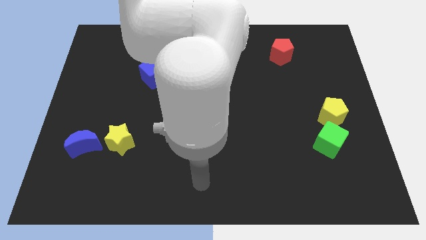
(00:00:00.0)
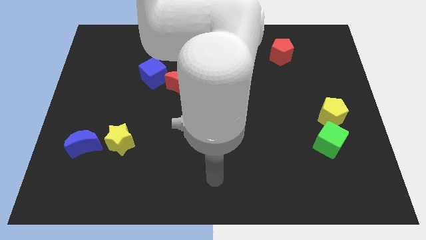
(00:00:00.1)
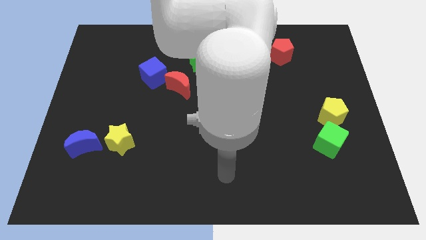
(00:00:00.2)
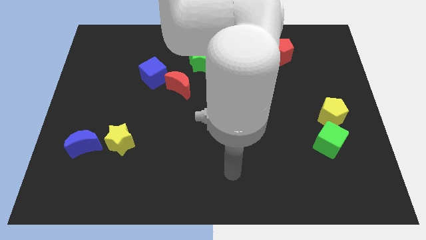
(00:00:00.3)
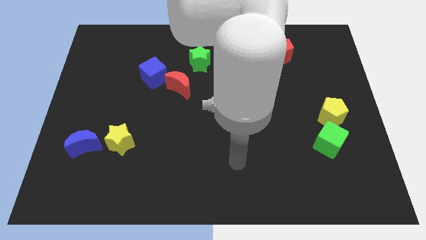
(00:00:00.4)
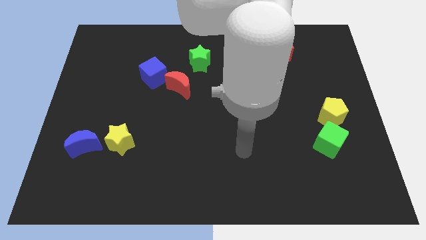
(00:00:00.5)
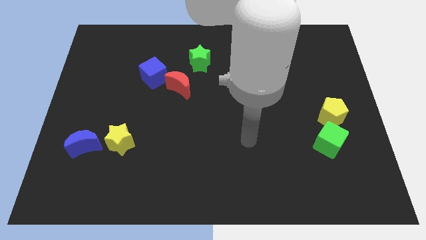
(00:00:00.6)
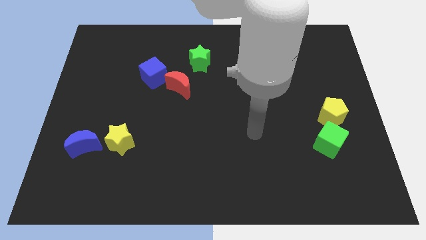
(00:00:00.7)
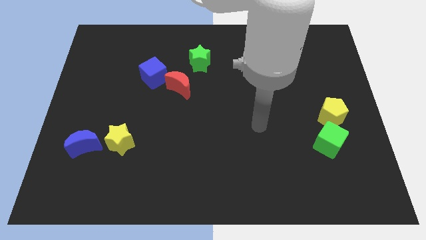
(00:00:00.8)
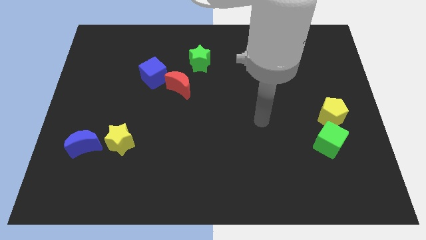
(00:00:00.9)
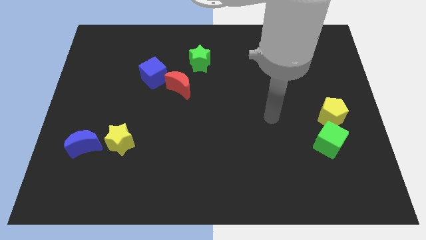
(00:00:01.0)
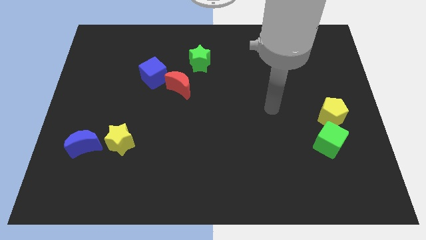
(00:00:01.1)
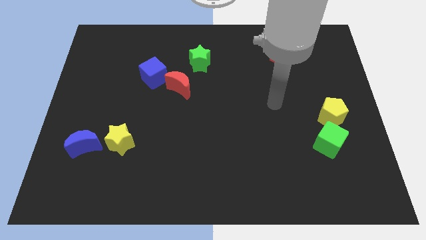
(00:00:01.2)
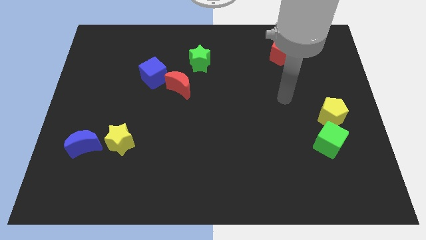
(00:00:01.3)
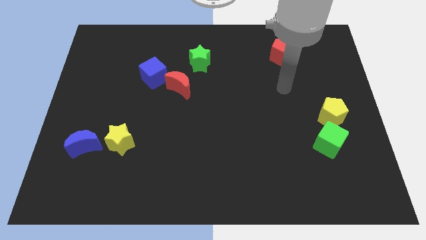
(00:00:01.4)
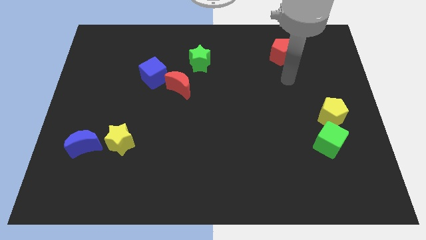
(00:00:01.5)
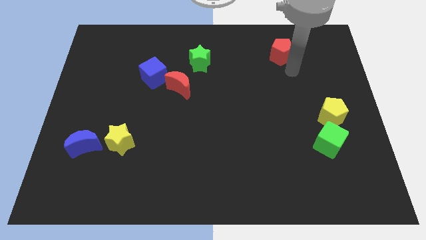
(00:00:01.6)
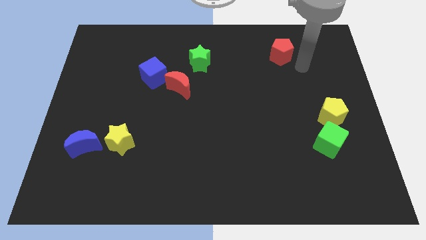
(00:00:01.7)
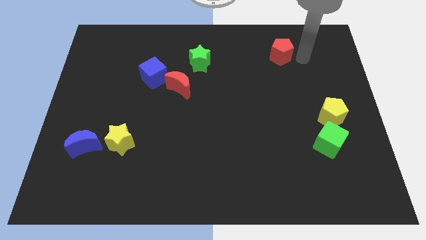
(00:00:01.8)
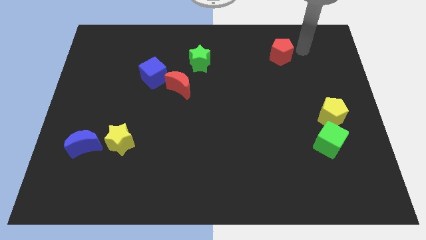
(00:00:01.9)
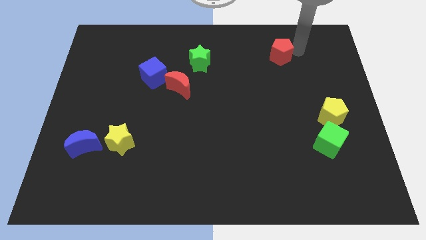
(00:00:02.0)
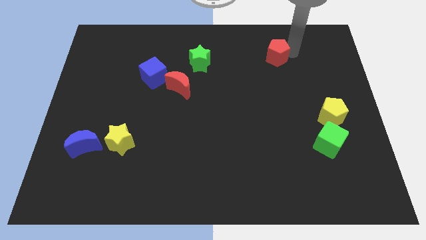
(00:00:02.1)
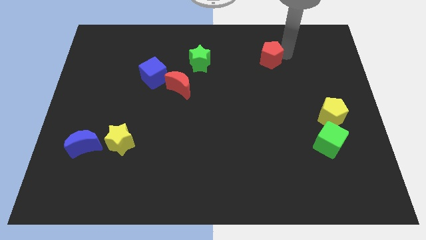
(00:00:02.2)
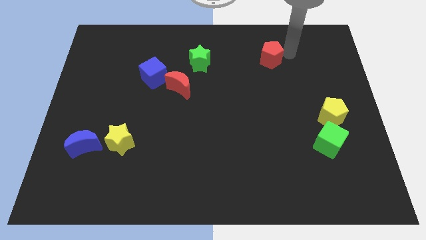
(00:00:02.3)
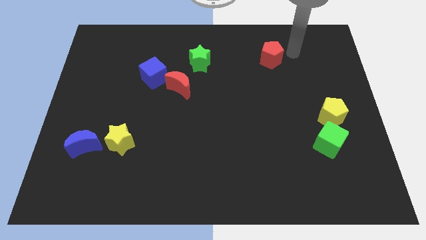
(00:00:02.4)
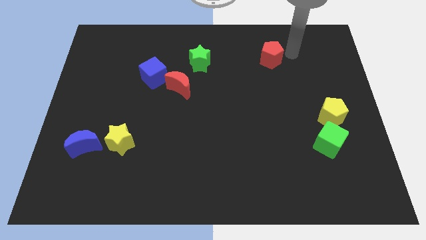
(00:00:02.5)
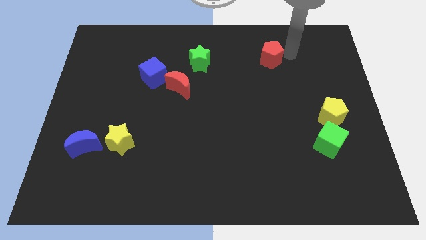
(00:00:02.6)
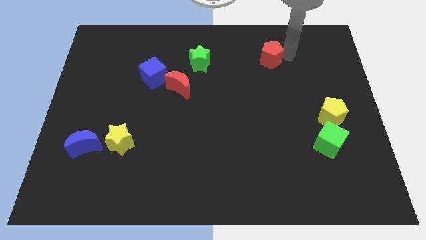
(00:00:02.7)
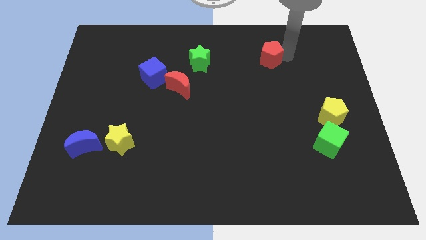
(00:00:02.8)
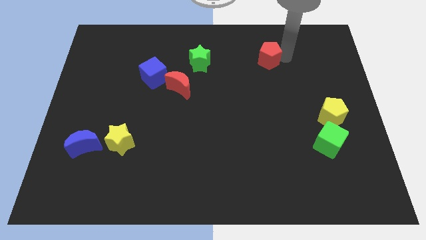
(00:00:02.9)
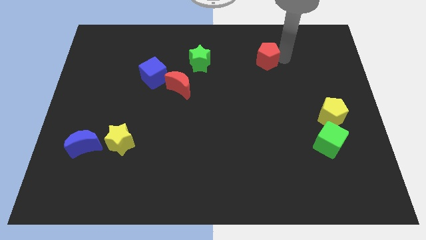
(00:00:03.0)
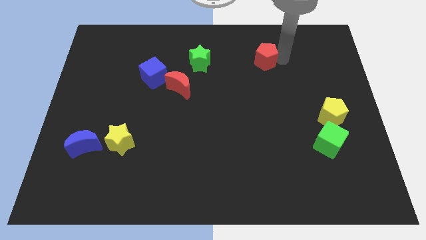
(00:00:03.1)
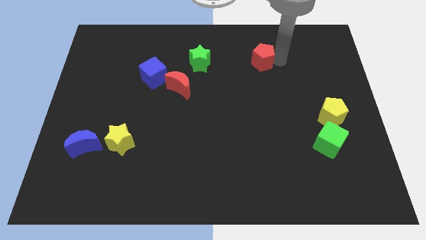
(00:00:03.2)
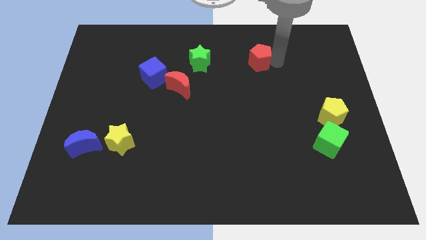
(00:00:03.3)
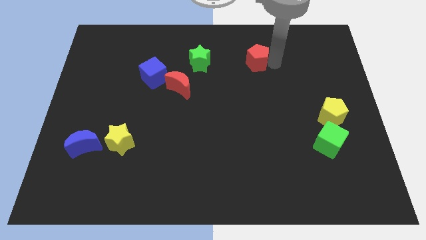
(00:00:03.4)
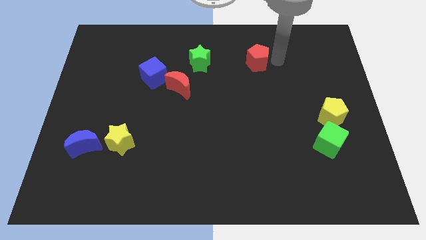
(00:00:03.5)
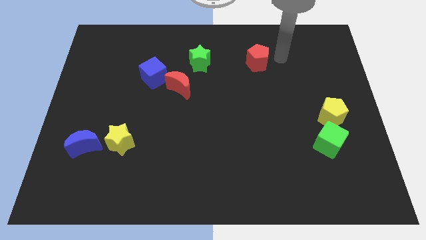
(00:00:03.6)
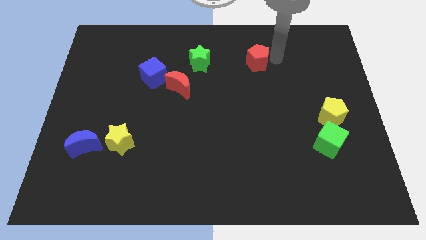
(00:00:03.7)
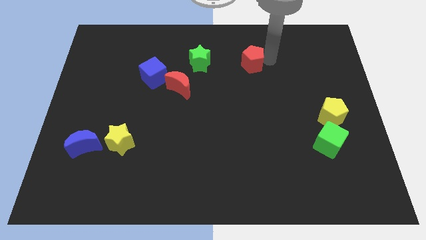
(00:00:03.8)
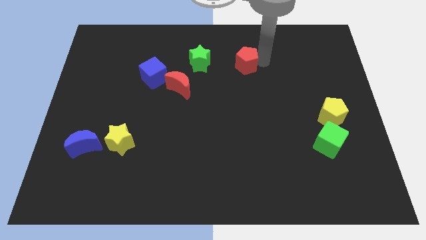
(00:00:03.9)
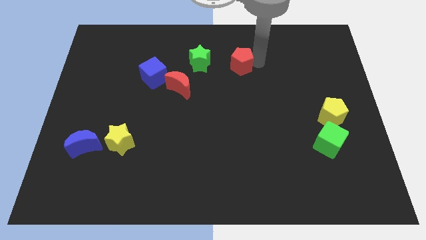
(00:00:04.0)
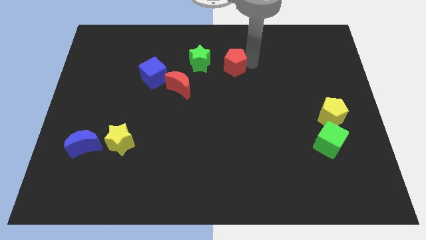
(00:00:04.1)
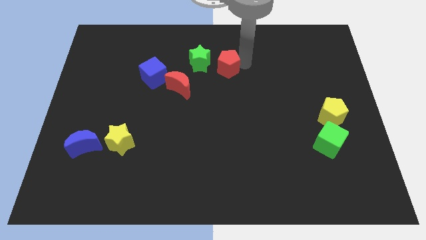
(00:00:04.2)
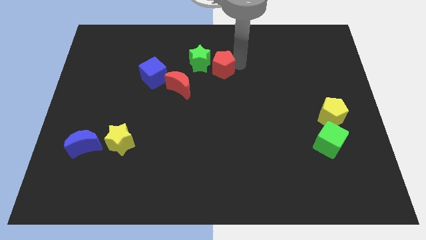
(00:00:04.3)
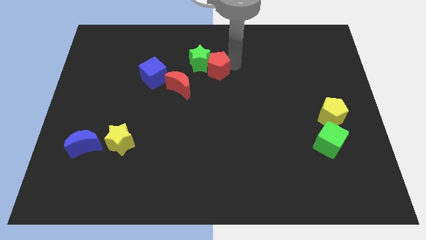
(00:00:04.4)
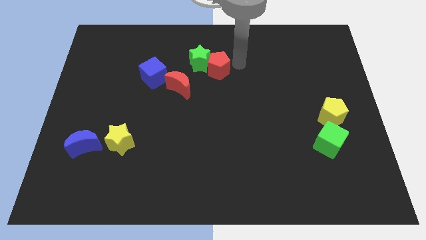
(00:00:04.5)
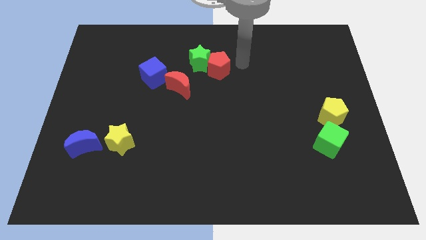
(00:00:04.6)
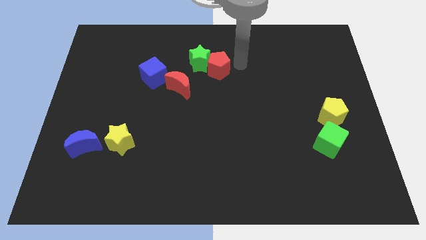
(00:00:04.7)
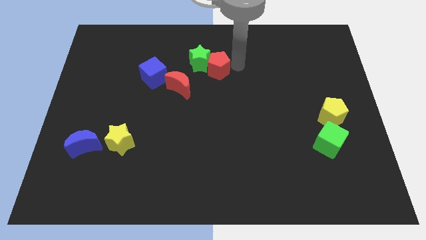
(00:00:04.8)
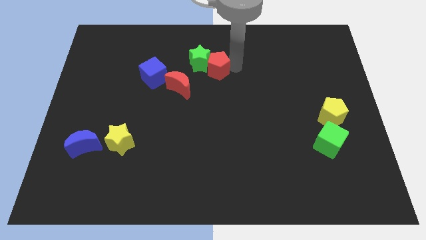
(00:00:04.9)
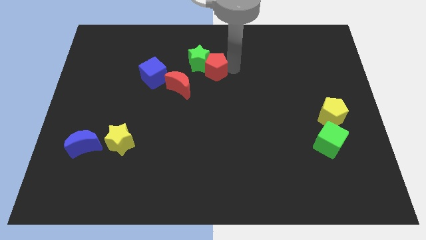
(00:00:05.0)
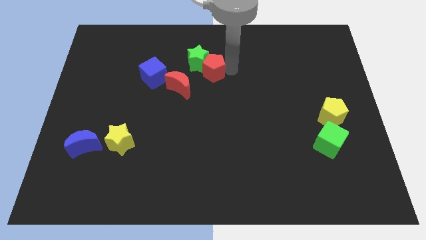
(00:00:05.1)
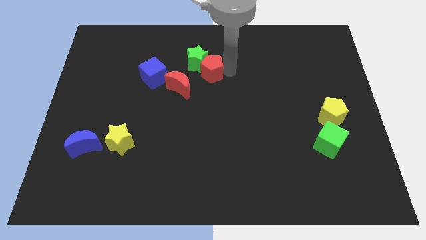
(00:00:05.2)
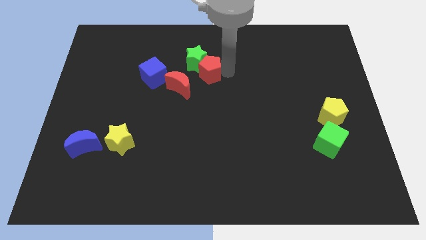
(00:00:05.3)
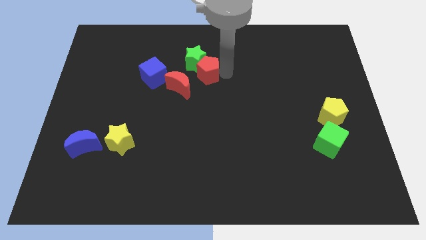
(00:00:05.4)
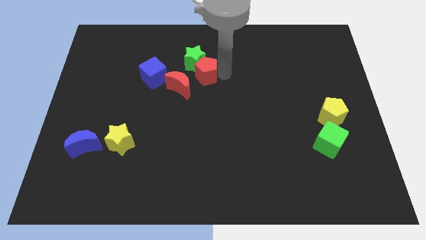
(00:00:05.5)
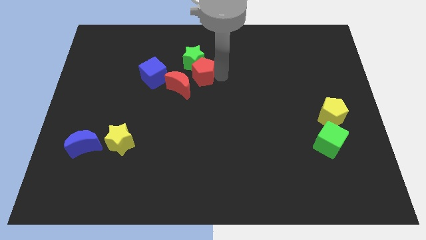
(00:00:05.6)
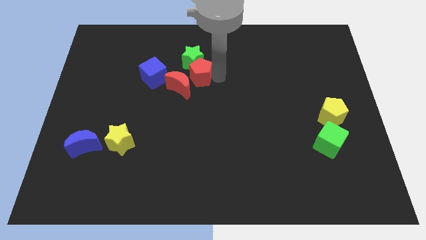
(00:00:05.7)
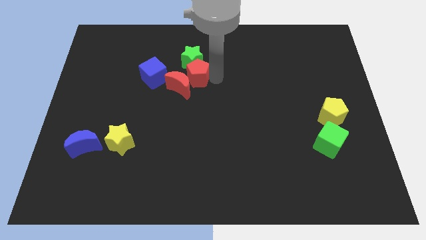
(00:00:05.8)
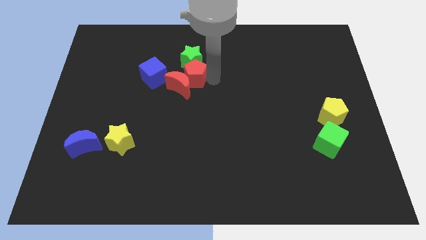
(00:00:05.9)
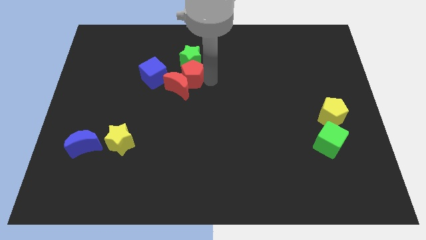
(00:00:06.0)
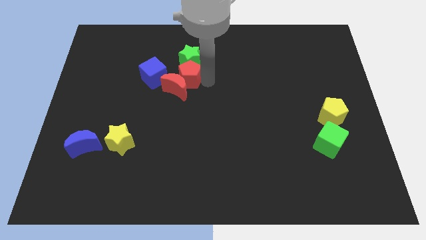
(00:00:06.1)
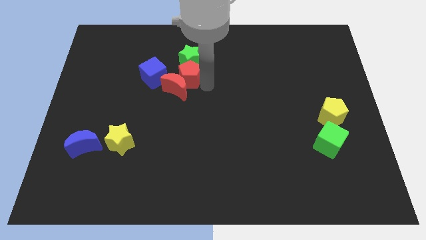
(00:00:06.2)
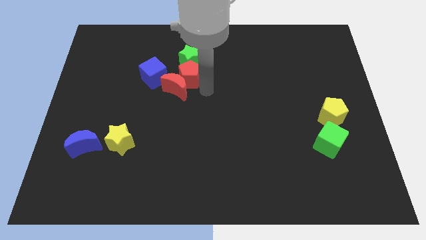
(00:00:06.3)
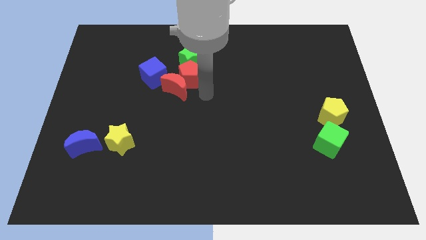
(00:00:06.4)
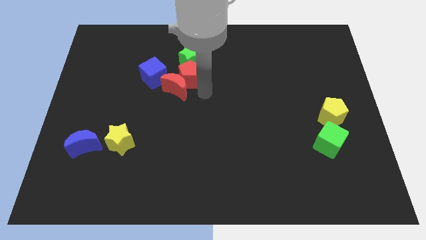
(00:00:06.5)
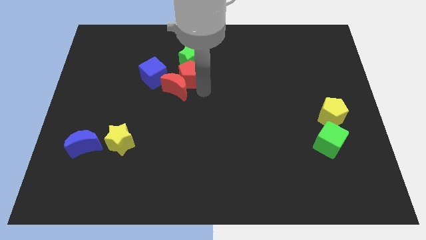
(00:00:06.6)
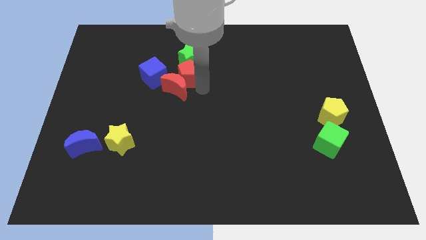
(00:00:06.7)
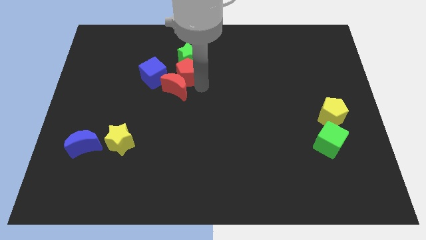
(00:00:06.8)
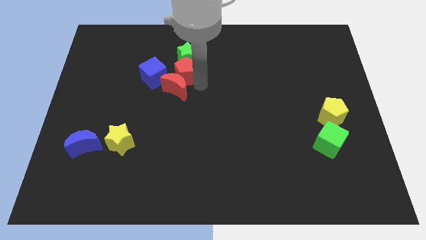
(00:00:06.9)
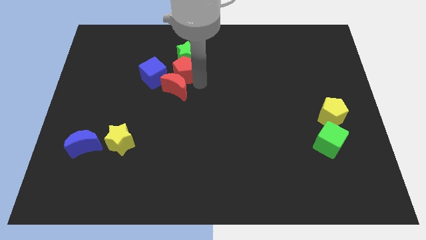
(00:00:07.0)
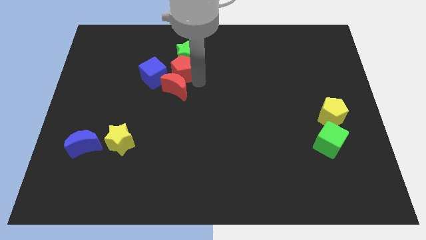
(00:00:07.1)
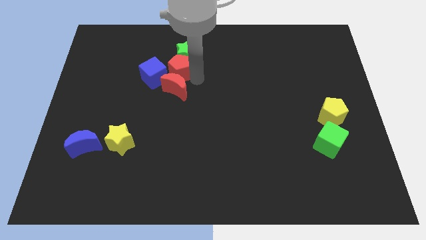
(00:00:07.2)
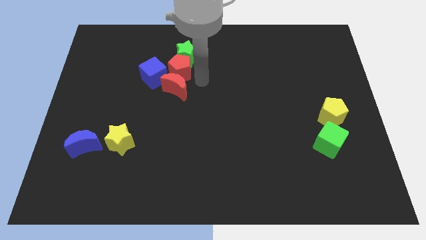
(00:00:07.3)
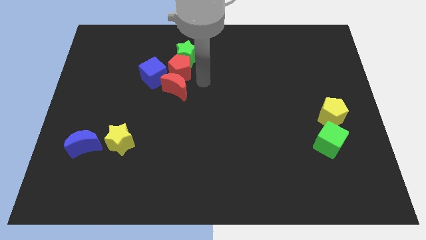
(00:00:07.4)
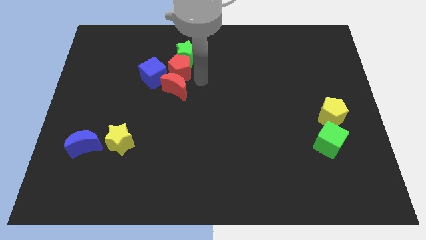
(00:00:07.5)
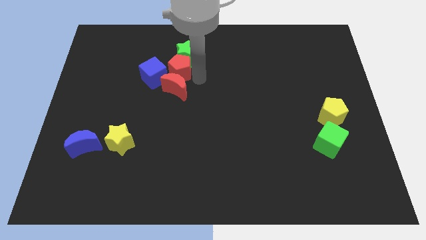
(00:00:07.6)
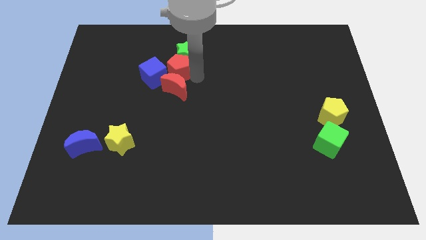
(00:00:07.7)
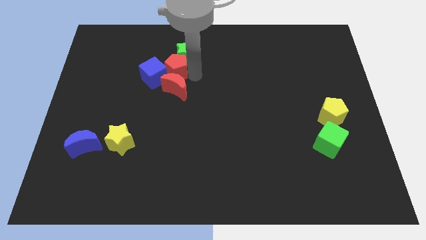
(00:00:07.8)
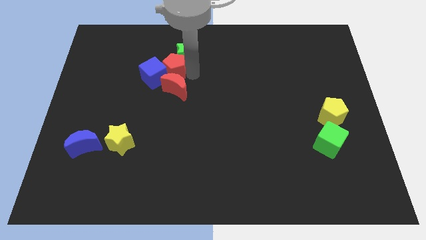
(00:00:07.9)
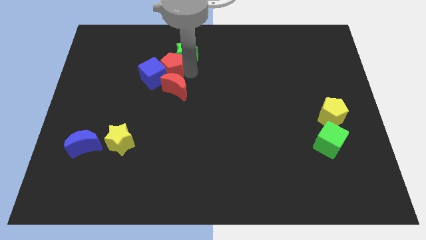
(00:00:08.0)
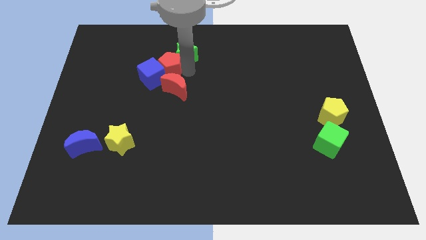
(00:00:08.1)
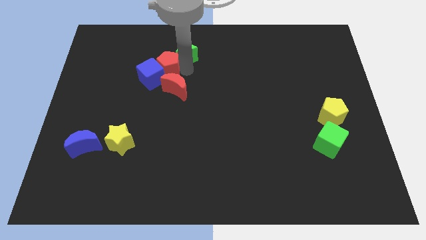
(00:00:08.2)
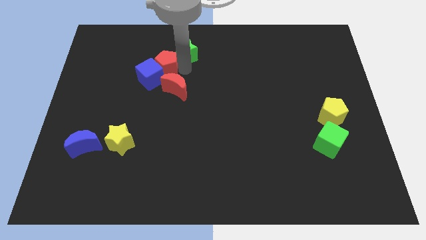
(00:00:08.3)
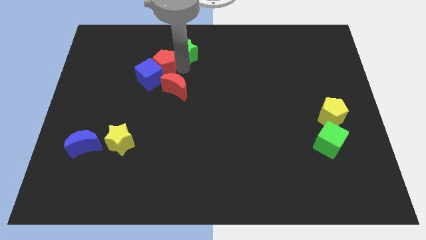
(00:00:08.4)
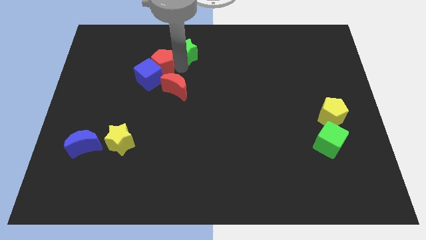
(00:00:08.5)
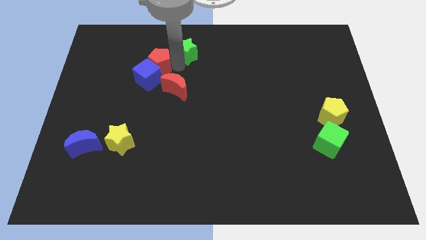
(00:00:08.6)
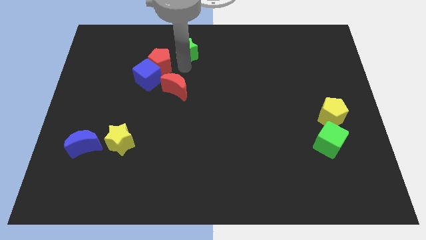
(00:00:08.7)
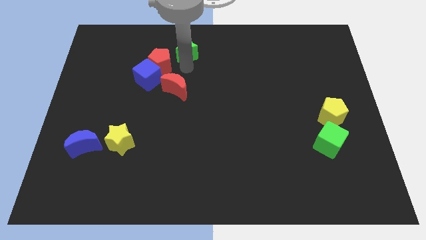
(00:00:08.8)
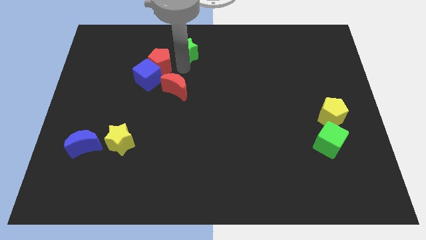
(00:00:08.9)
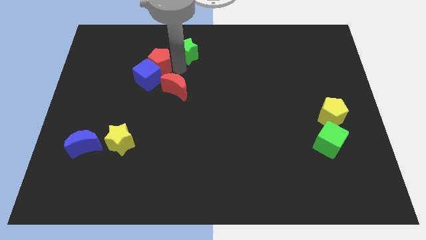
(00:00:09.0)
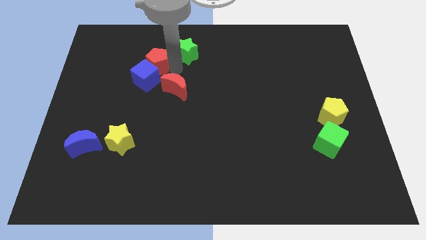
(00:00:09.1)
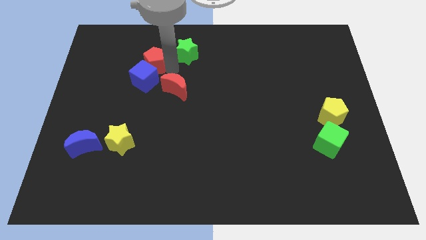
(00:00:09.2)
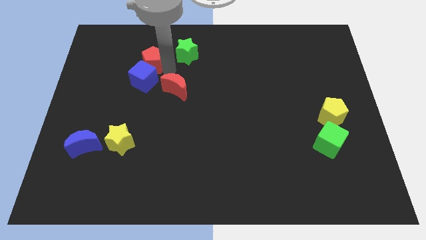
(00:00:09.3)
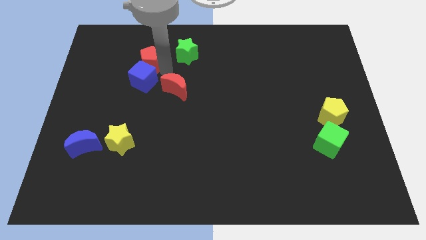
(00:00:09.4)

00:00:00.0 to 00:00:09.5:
push the red pentagon to the top left side of the blue cube
